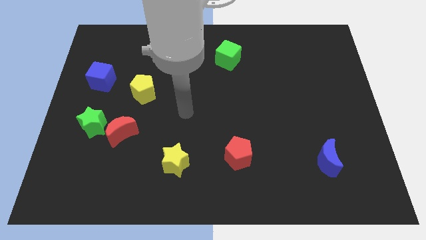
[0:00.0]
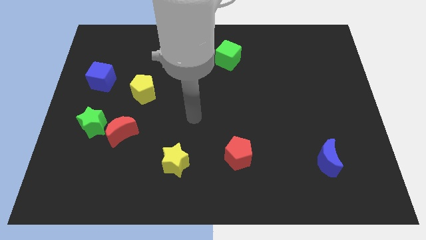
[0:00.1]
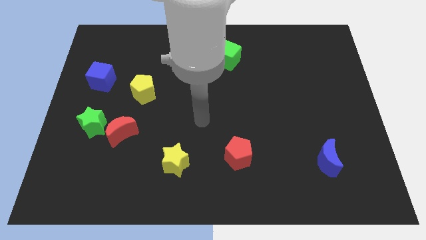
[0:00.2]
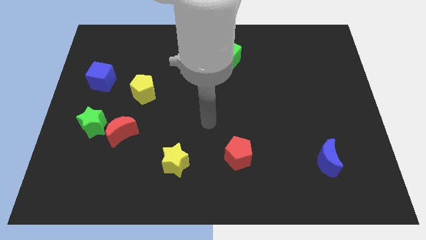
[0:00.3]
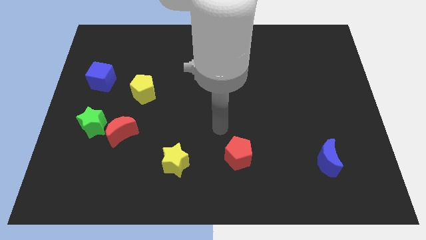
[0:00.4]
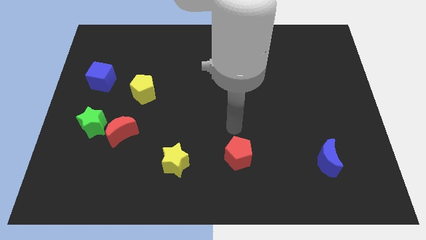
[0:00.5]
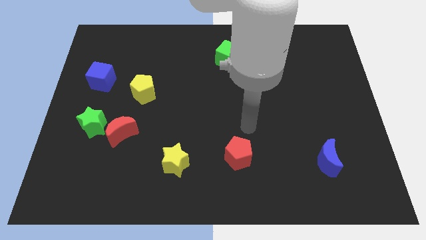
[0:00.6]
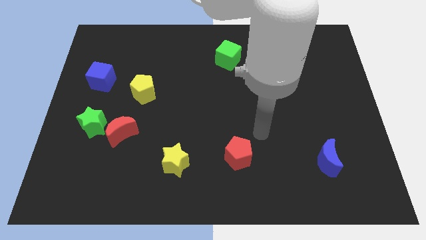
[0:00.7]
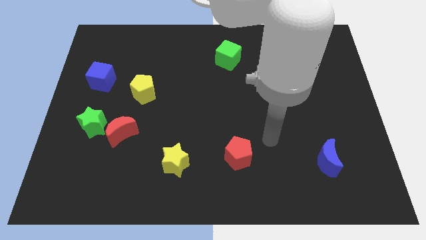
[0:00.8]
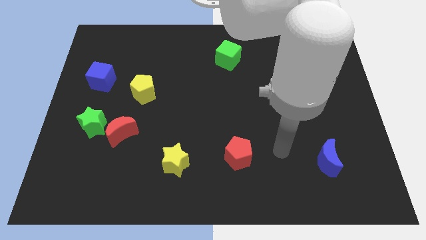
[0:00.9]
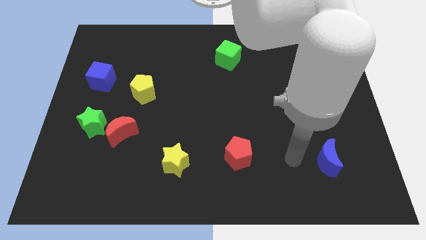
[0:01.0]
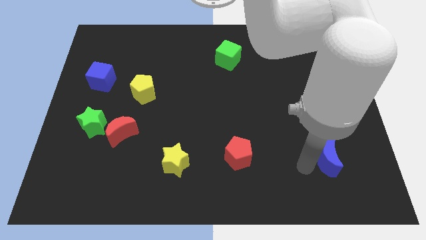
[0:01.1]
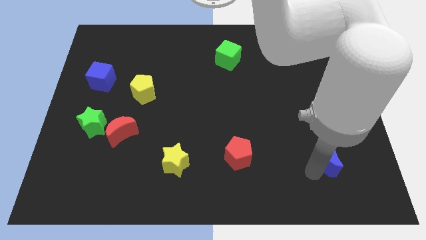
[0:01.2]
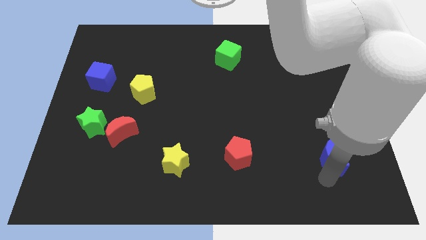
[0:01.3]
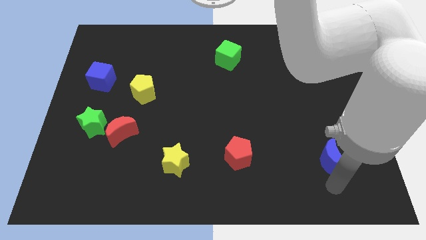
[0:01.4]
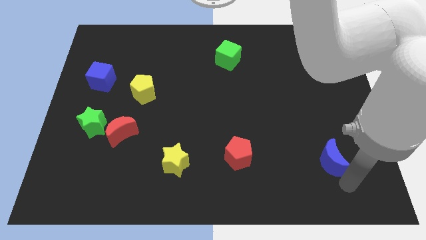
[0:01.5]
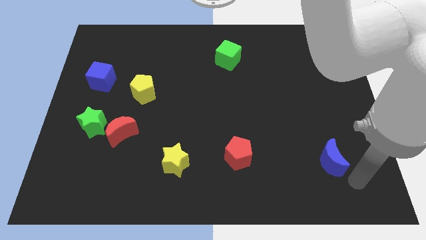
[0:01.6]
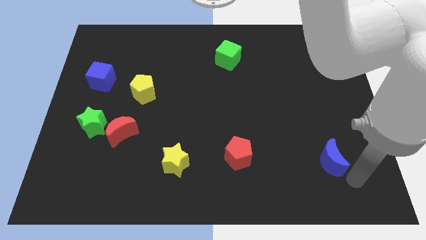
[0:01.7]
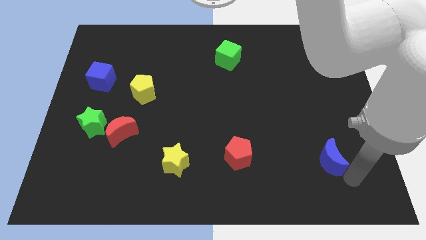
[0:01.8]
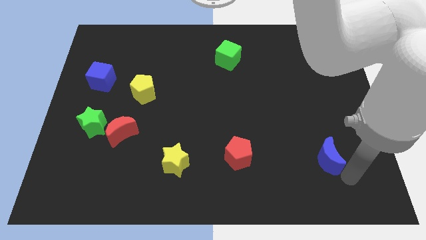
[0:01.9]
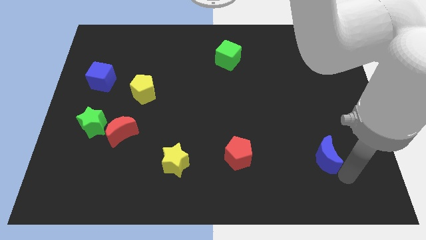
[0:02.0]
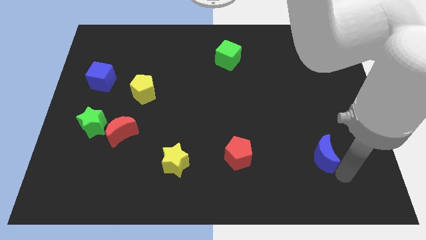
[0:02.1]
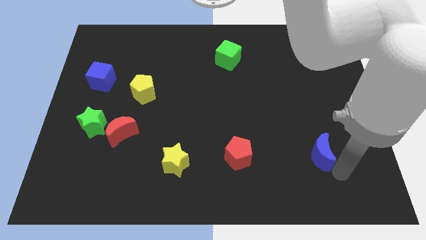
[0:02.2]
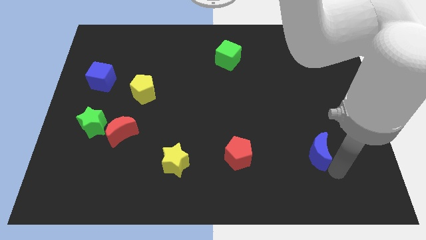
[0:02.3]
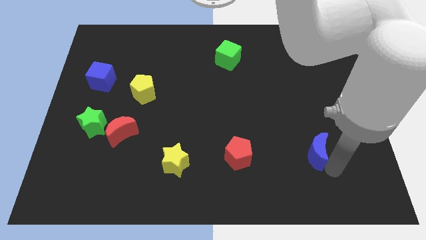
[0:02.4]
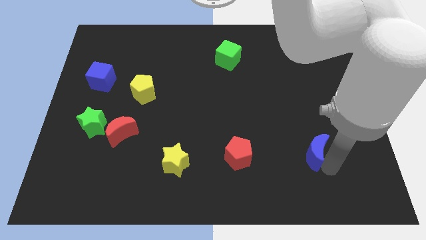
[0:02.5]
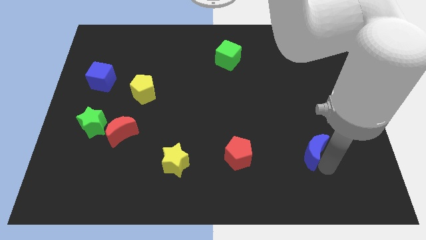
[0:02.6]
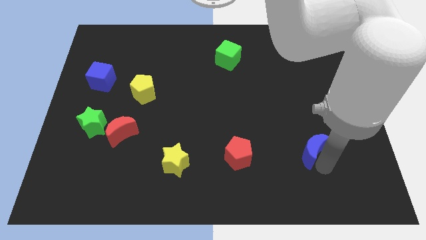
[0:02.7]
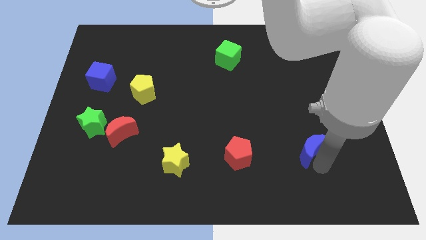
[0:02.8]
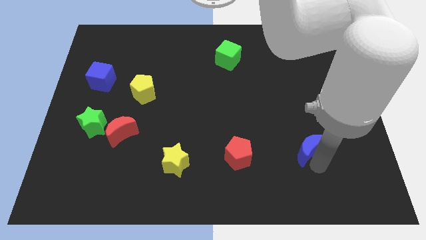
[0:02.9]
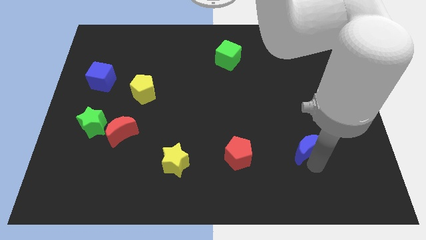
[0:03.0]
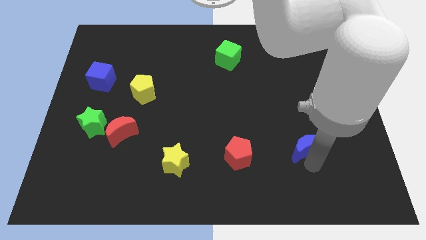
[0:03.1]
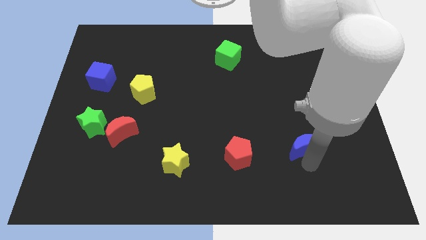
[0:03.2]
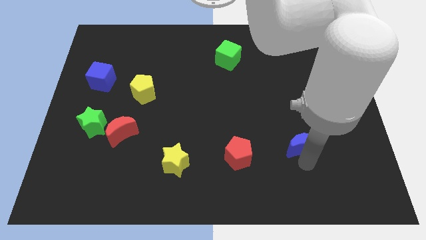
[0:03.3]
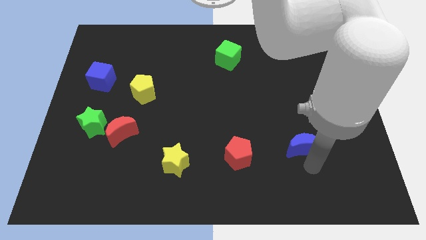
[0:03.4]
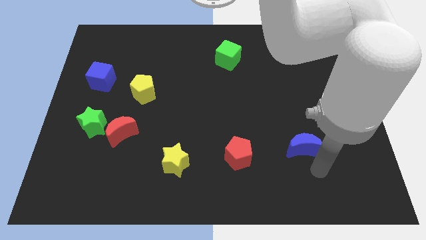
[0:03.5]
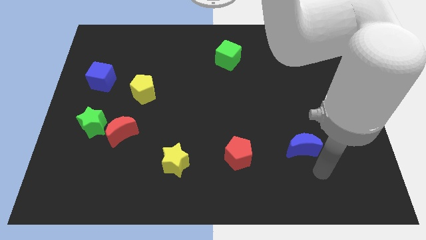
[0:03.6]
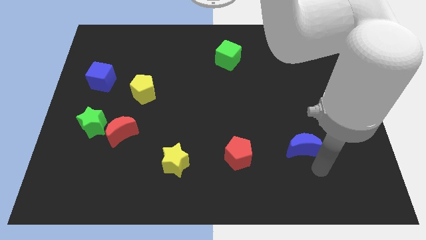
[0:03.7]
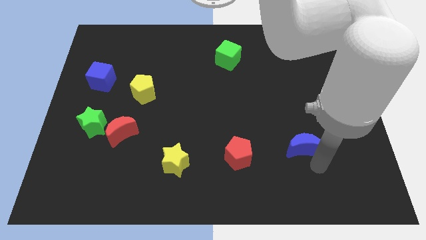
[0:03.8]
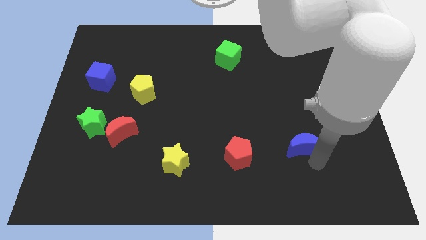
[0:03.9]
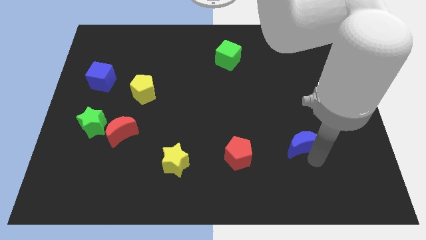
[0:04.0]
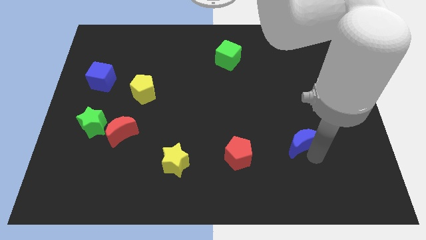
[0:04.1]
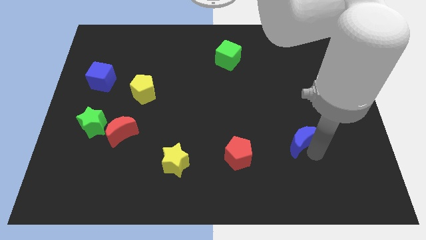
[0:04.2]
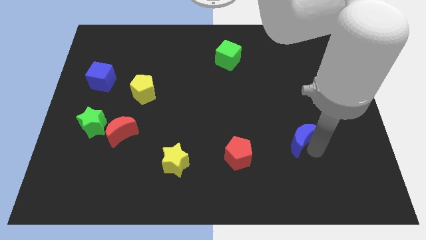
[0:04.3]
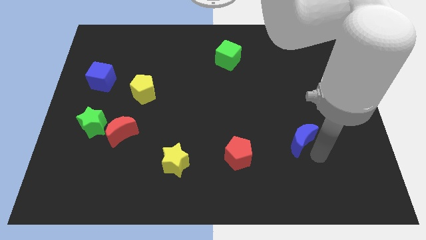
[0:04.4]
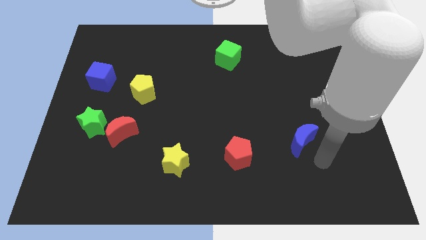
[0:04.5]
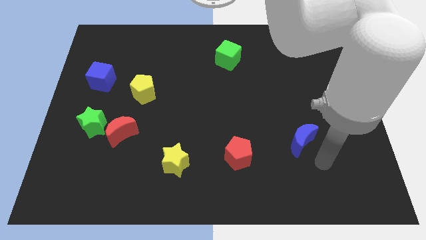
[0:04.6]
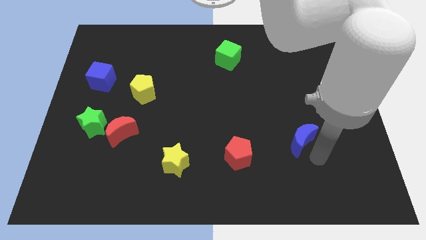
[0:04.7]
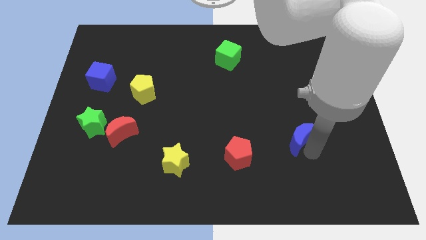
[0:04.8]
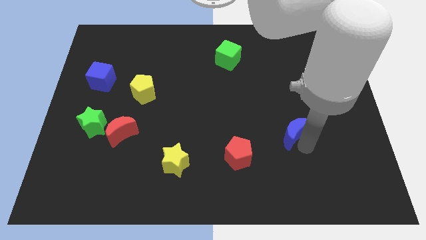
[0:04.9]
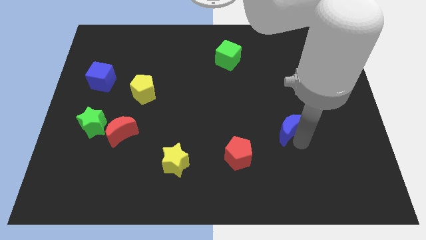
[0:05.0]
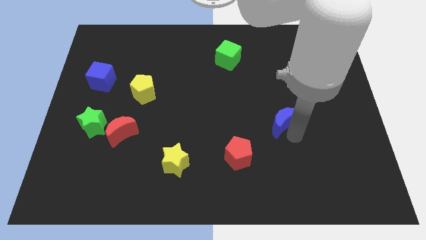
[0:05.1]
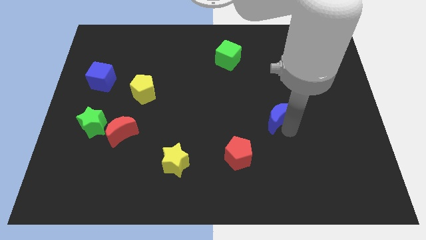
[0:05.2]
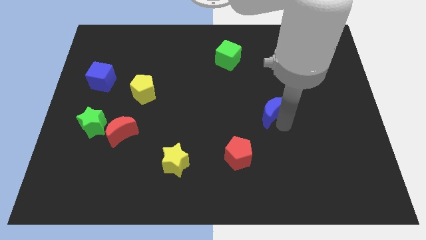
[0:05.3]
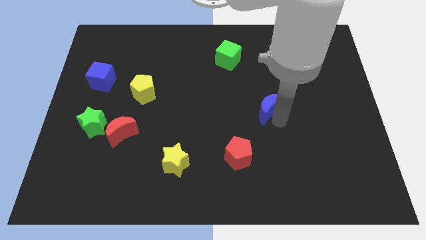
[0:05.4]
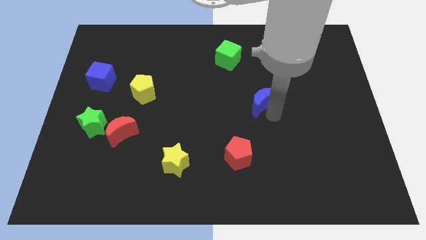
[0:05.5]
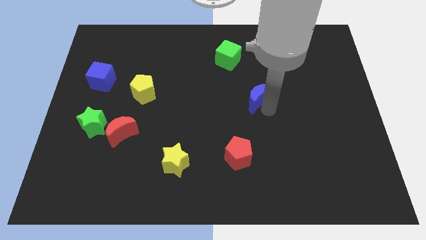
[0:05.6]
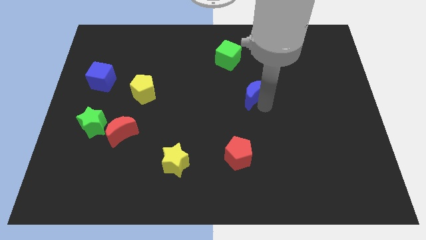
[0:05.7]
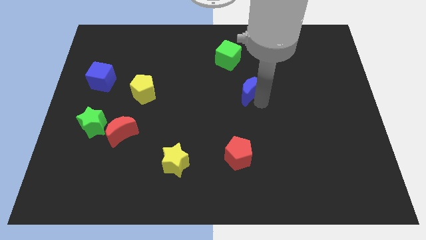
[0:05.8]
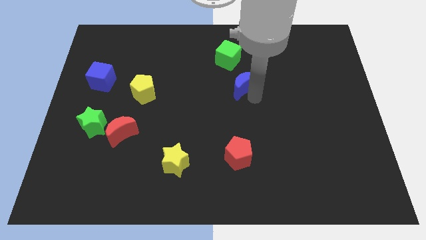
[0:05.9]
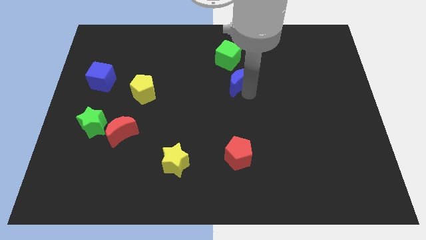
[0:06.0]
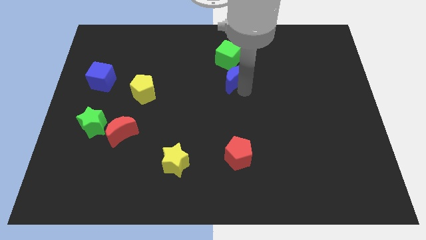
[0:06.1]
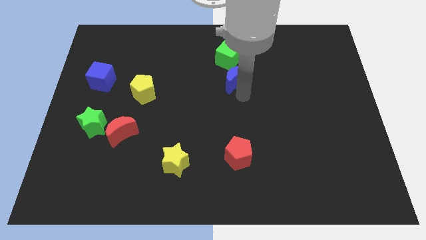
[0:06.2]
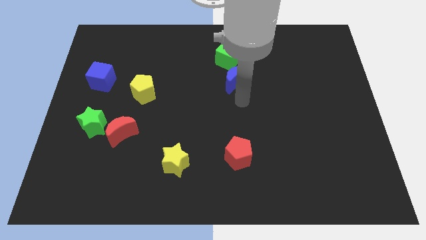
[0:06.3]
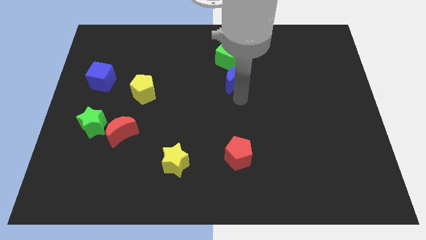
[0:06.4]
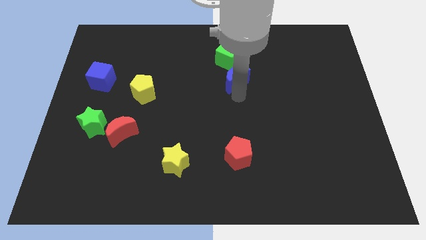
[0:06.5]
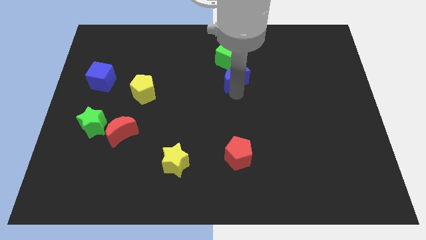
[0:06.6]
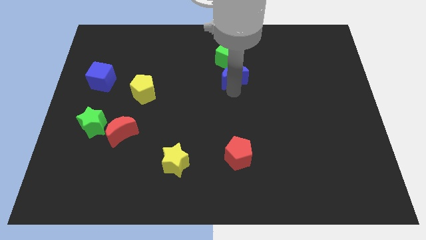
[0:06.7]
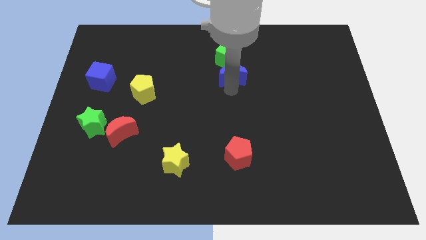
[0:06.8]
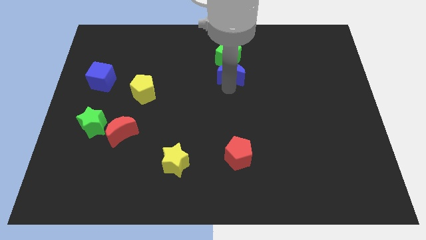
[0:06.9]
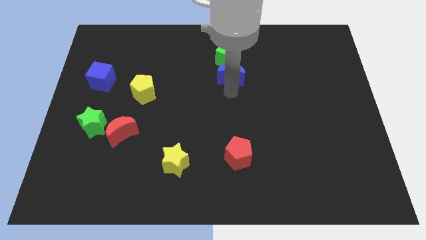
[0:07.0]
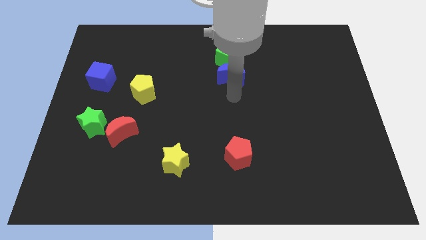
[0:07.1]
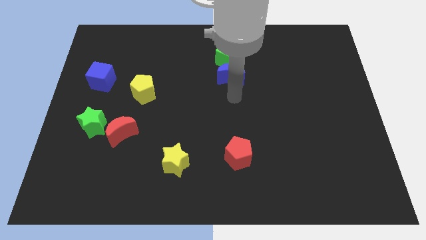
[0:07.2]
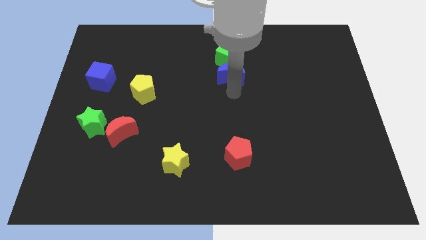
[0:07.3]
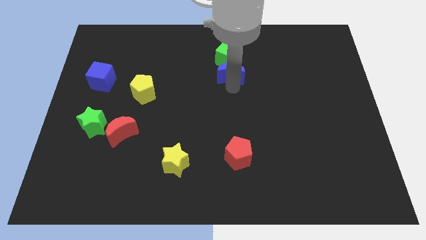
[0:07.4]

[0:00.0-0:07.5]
move the blue moon close to the green cube
